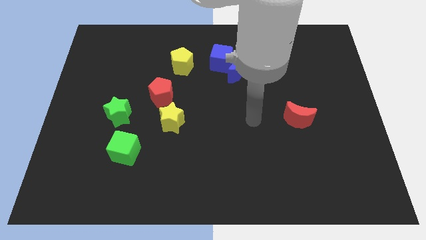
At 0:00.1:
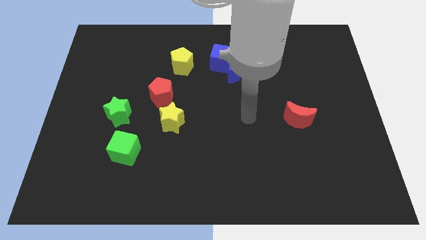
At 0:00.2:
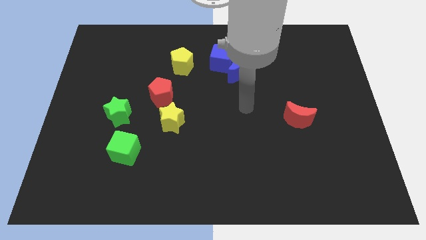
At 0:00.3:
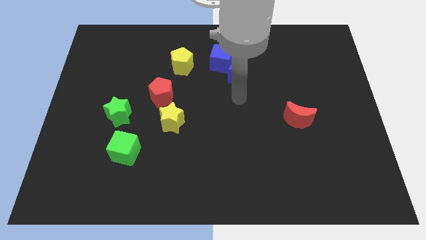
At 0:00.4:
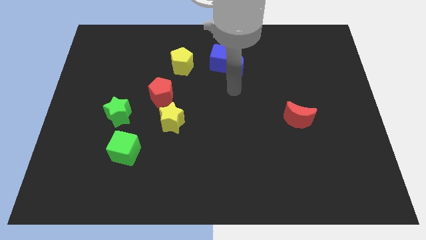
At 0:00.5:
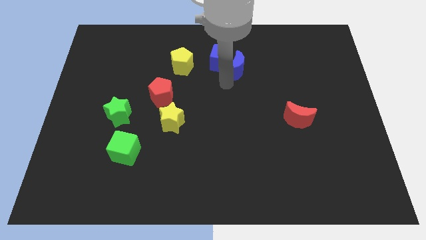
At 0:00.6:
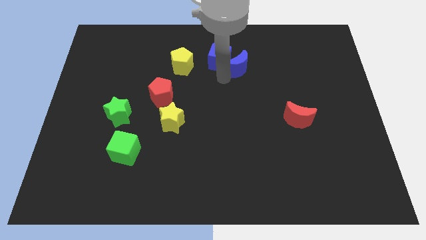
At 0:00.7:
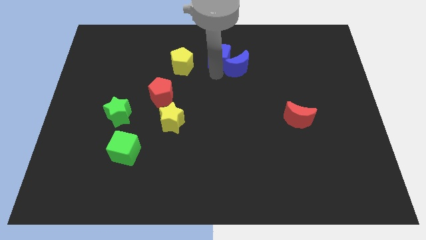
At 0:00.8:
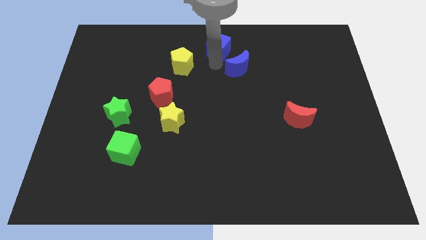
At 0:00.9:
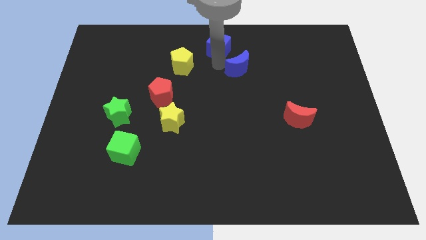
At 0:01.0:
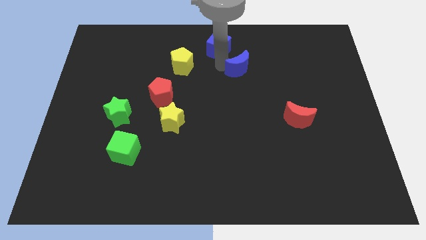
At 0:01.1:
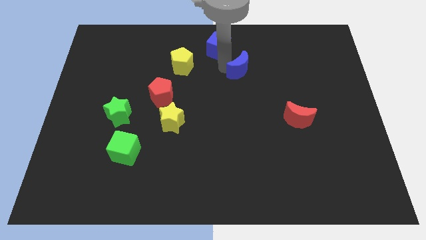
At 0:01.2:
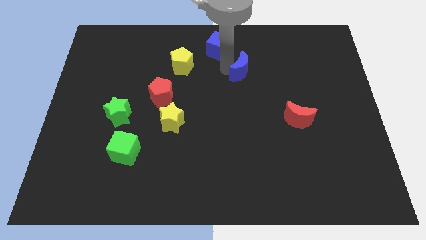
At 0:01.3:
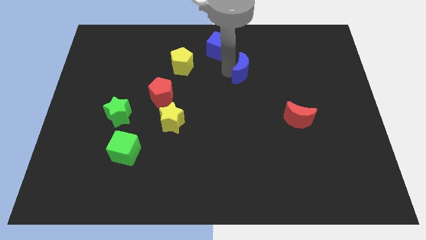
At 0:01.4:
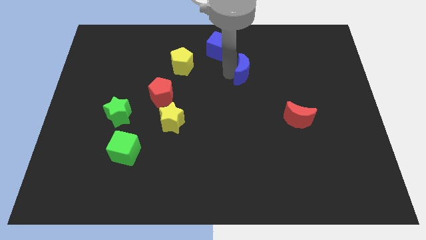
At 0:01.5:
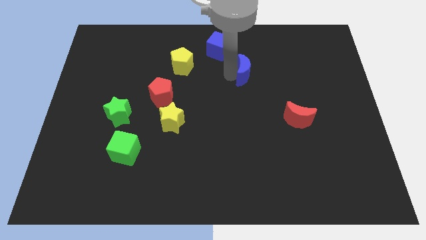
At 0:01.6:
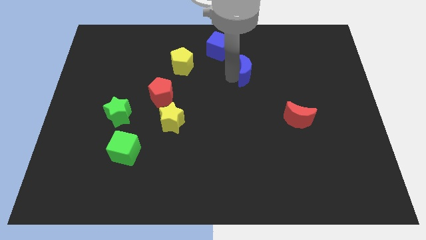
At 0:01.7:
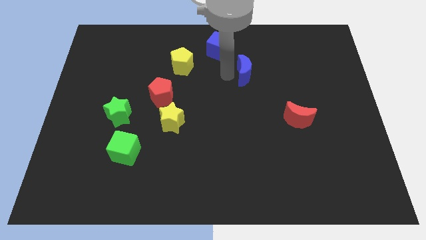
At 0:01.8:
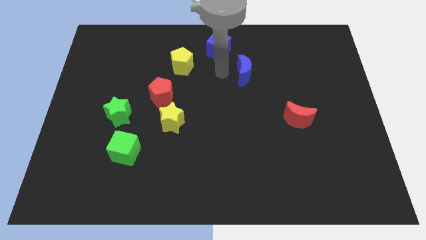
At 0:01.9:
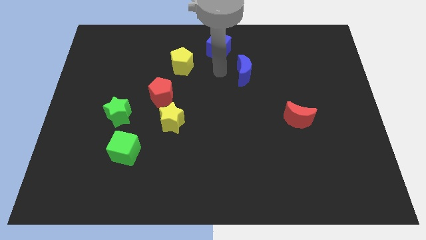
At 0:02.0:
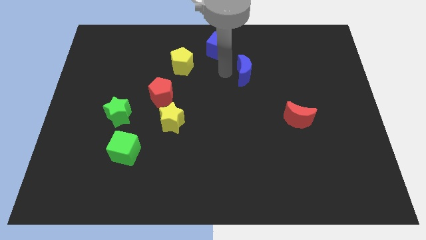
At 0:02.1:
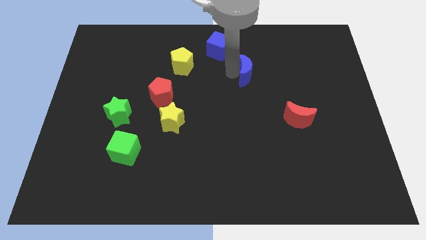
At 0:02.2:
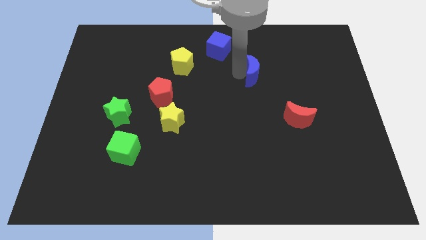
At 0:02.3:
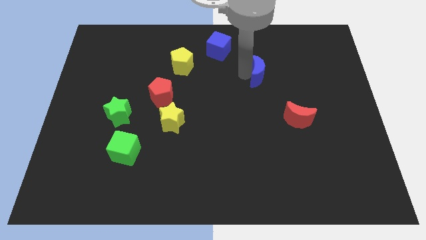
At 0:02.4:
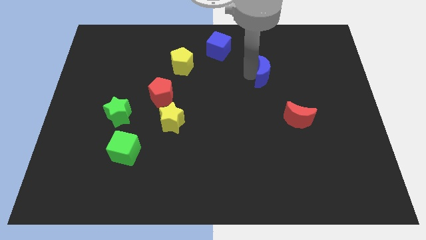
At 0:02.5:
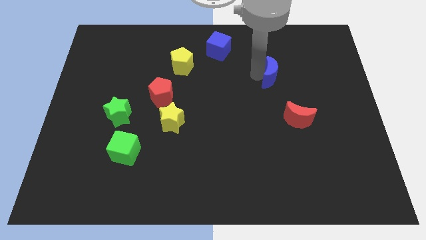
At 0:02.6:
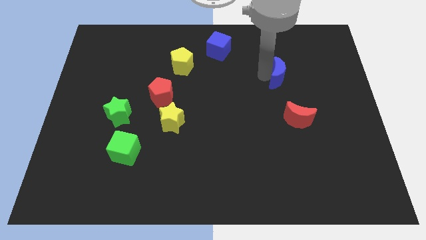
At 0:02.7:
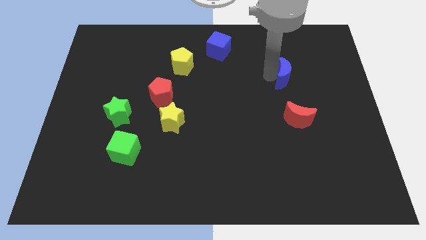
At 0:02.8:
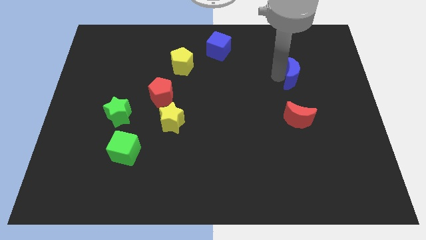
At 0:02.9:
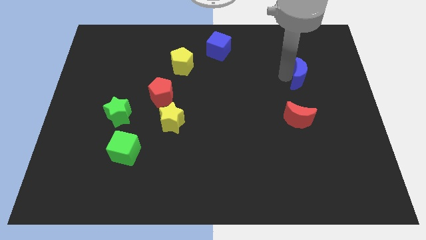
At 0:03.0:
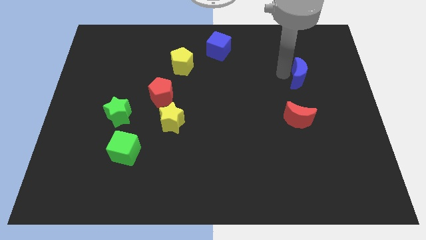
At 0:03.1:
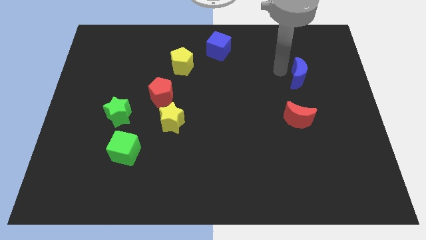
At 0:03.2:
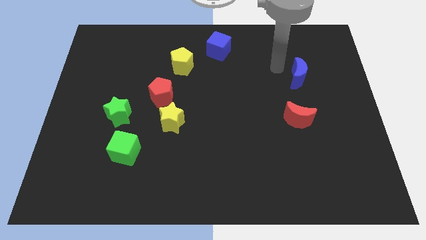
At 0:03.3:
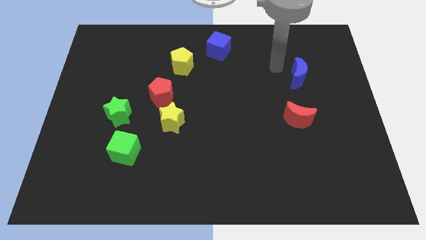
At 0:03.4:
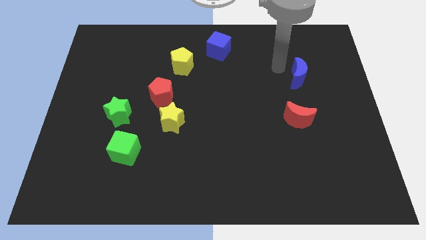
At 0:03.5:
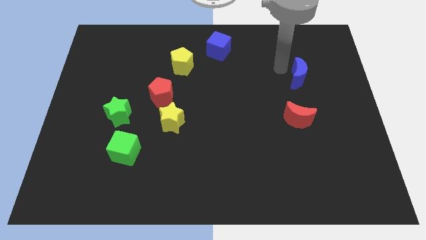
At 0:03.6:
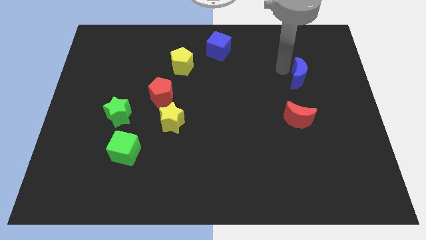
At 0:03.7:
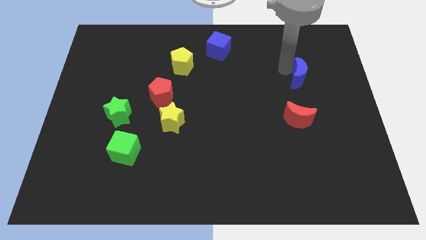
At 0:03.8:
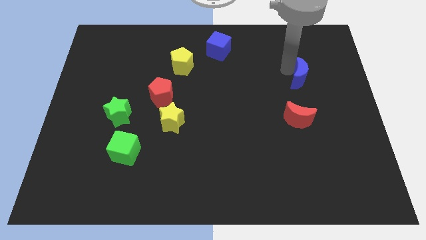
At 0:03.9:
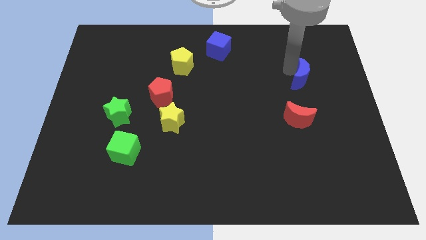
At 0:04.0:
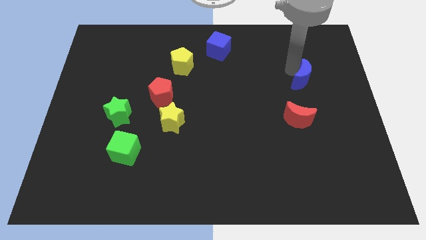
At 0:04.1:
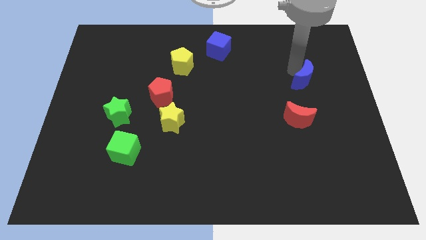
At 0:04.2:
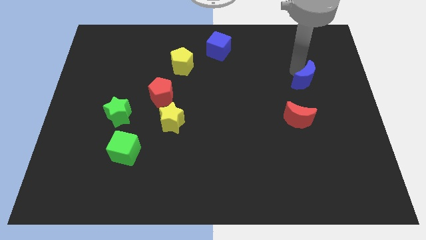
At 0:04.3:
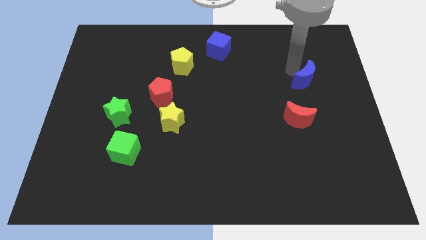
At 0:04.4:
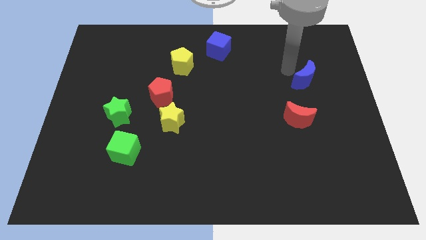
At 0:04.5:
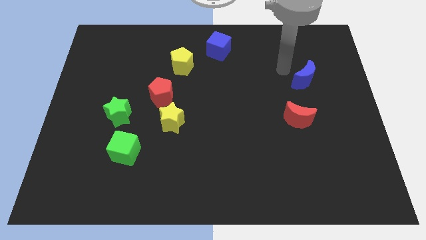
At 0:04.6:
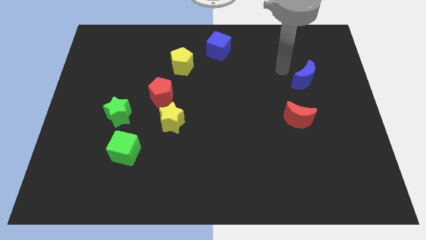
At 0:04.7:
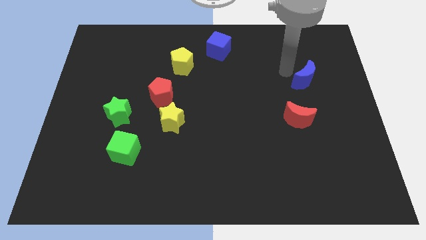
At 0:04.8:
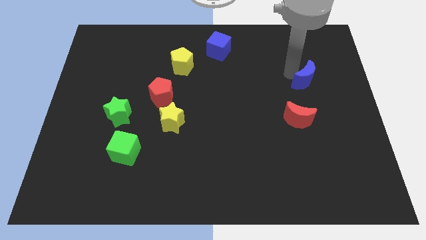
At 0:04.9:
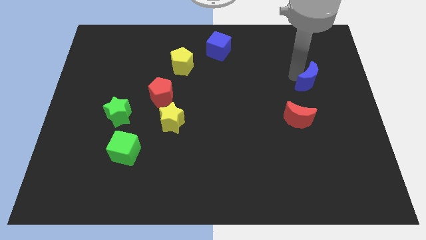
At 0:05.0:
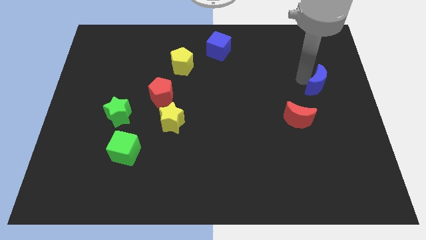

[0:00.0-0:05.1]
put the blue moon to the center right

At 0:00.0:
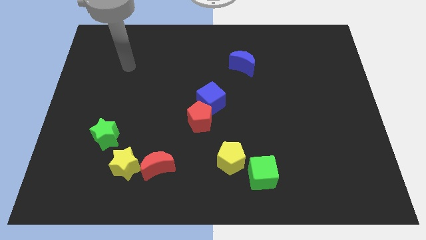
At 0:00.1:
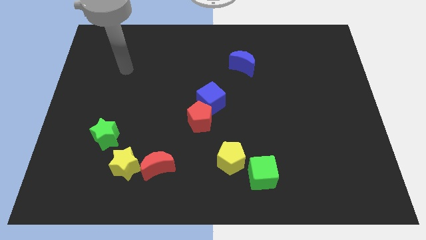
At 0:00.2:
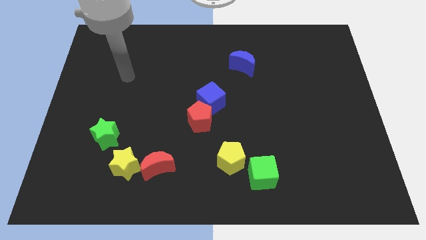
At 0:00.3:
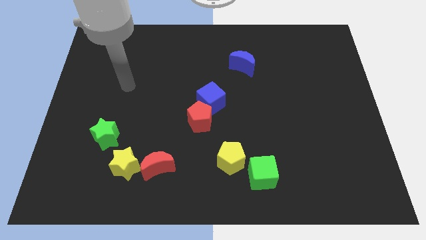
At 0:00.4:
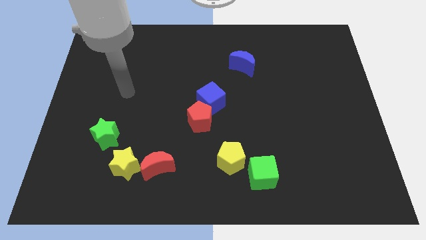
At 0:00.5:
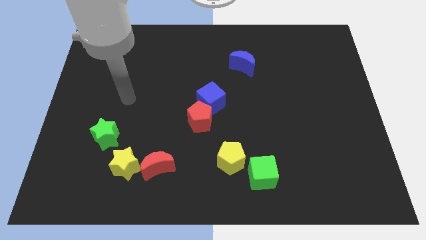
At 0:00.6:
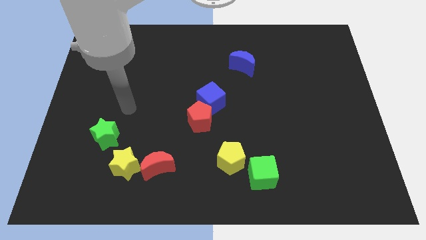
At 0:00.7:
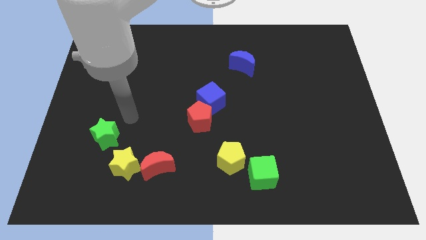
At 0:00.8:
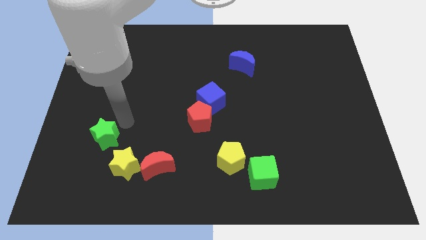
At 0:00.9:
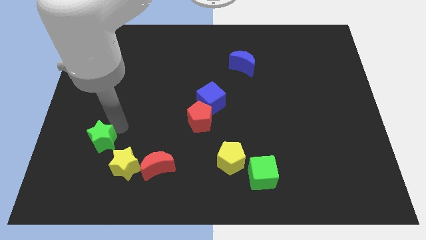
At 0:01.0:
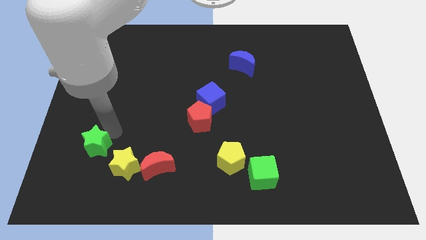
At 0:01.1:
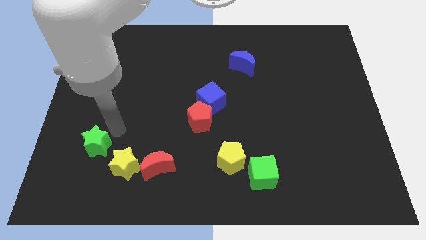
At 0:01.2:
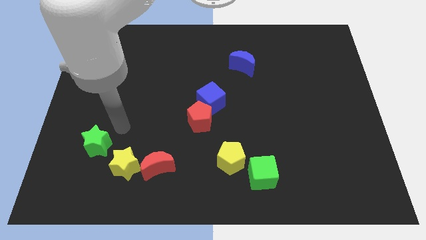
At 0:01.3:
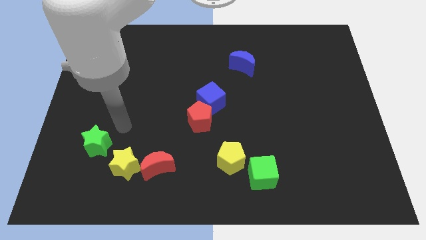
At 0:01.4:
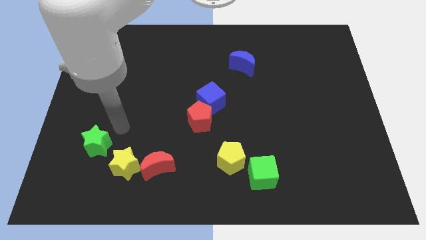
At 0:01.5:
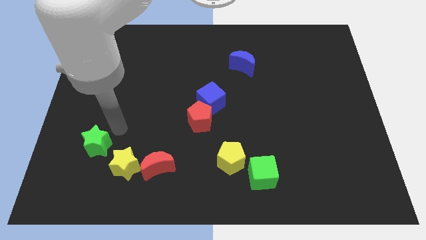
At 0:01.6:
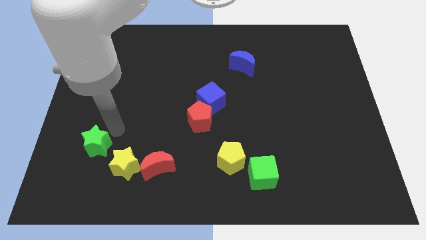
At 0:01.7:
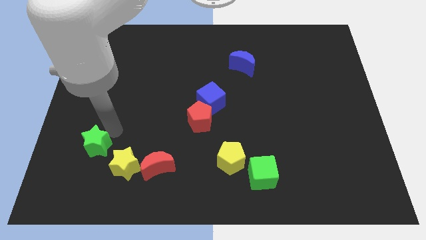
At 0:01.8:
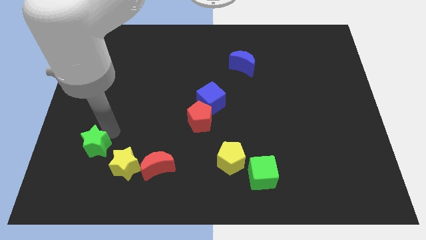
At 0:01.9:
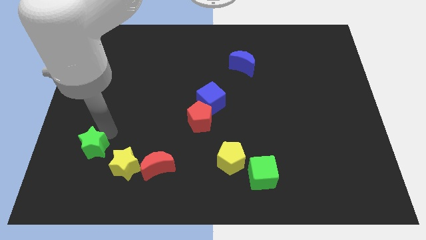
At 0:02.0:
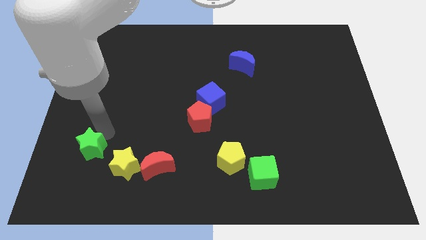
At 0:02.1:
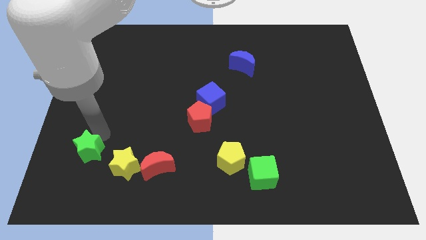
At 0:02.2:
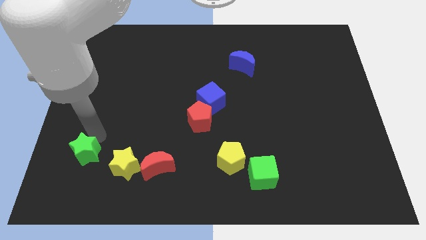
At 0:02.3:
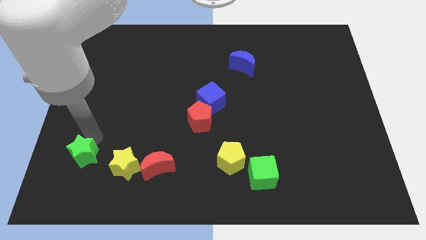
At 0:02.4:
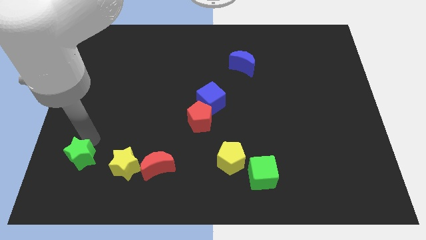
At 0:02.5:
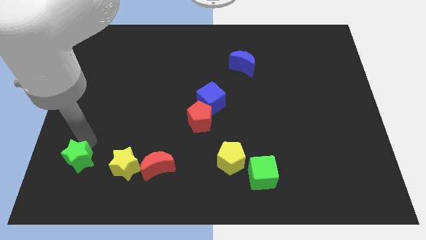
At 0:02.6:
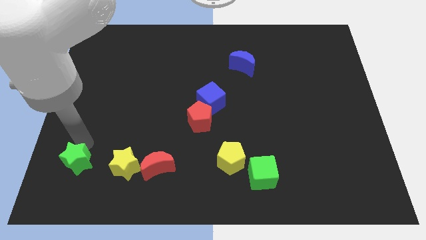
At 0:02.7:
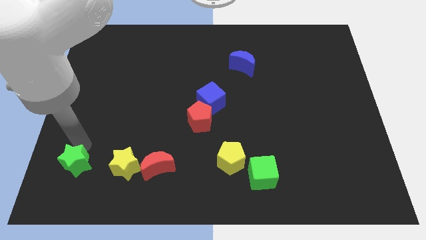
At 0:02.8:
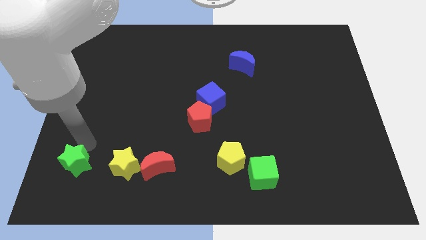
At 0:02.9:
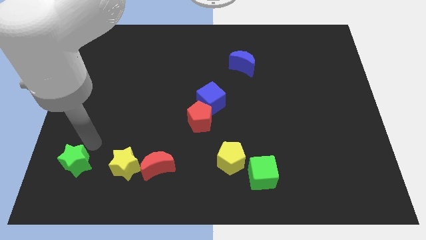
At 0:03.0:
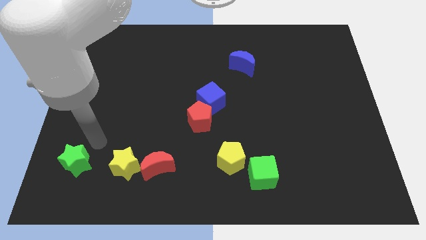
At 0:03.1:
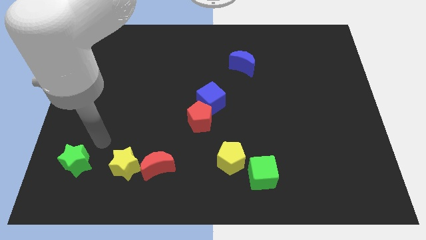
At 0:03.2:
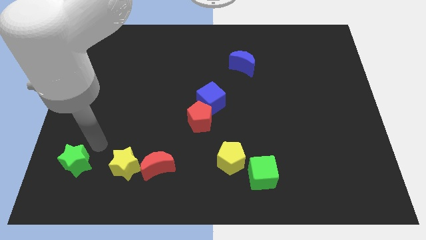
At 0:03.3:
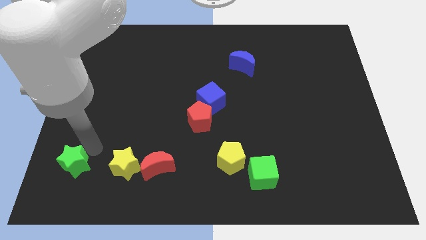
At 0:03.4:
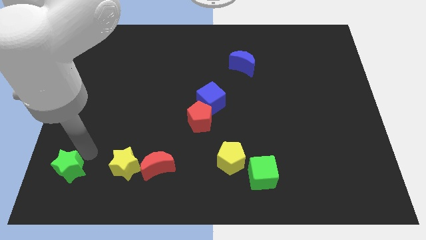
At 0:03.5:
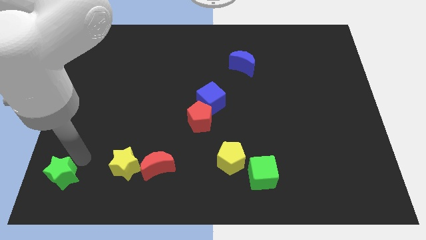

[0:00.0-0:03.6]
move the green star to the bottom left
